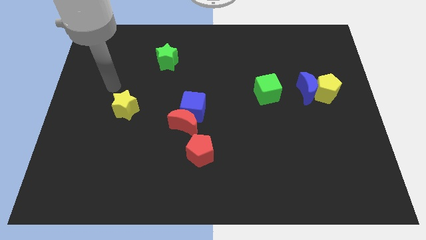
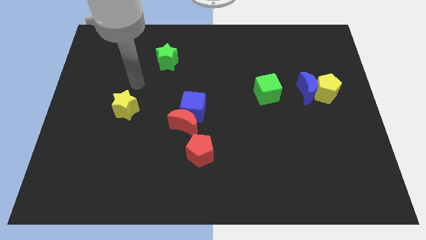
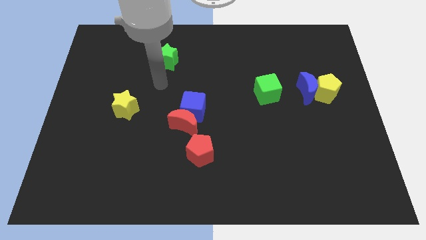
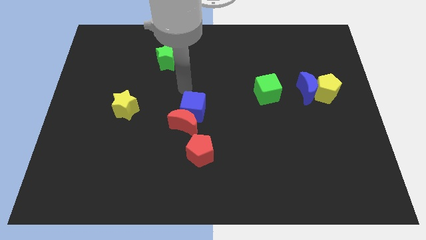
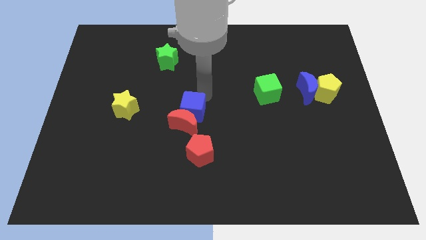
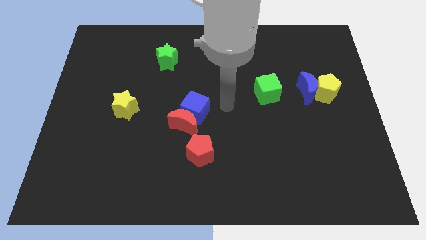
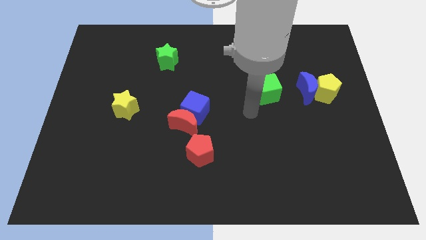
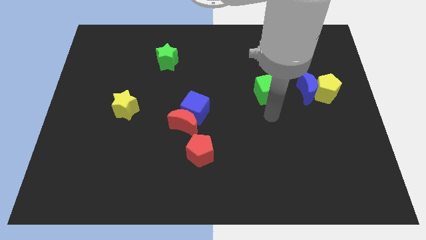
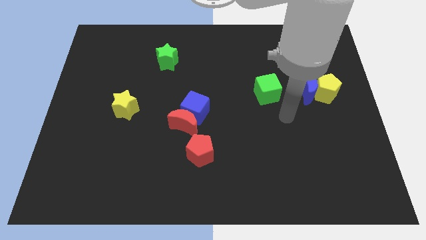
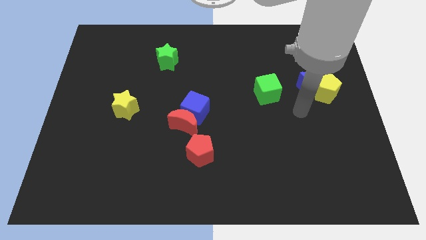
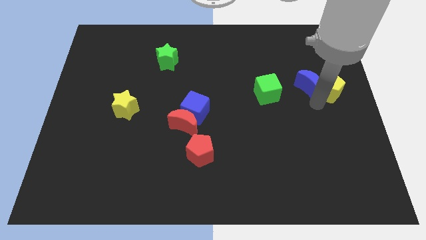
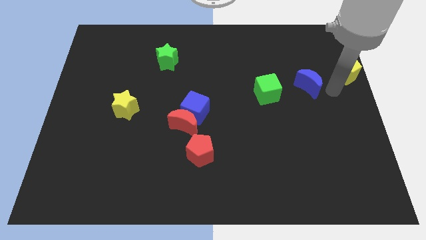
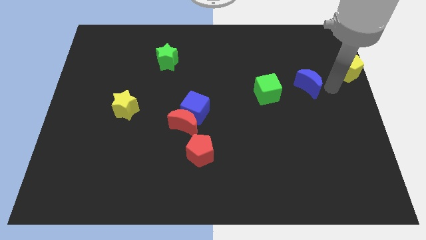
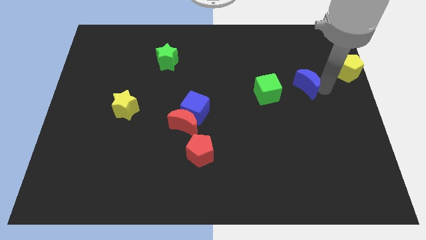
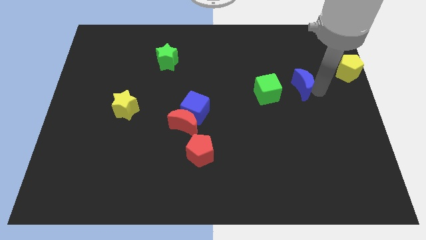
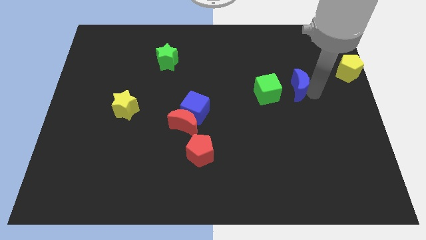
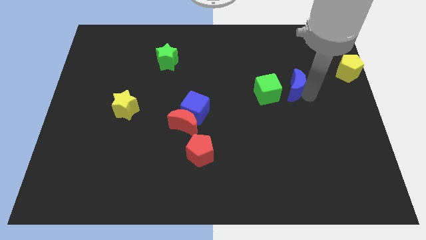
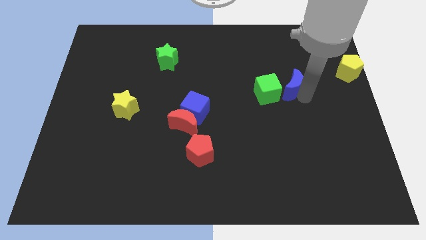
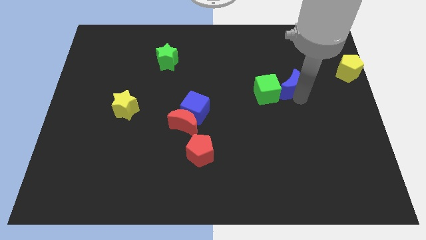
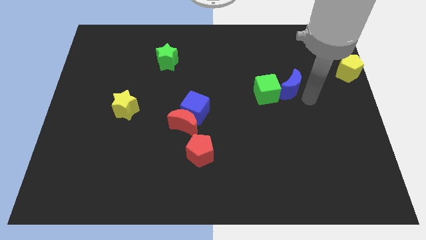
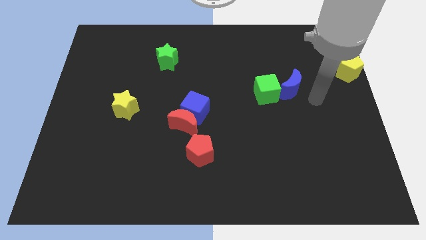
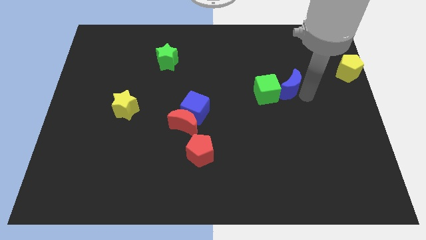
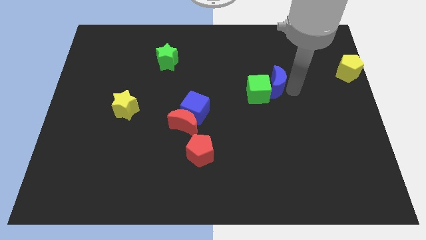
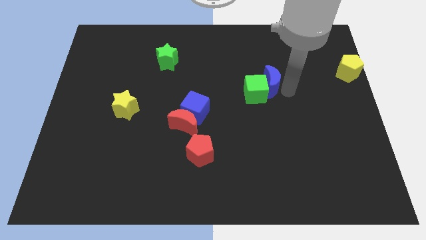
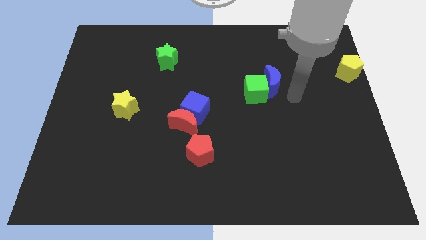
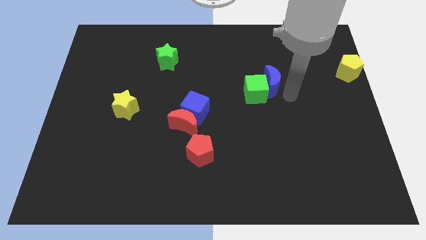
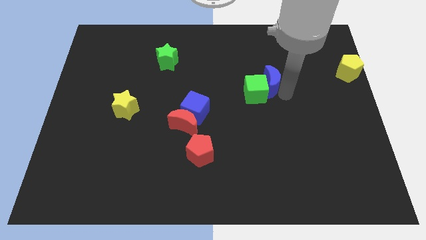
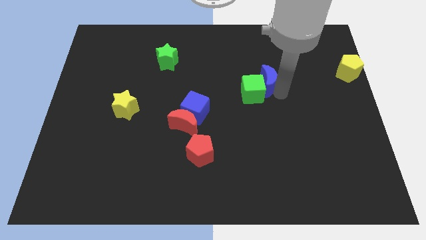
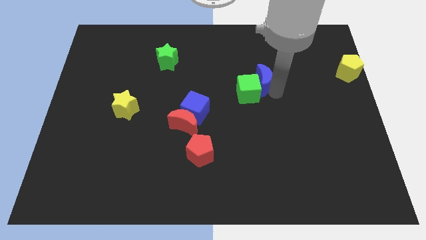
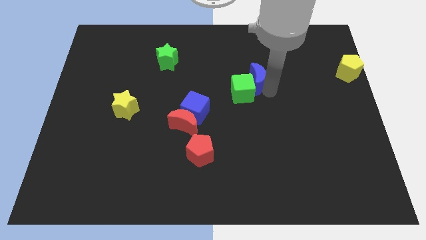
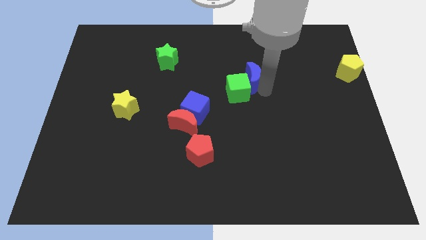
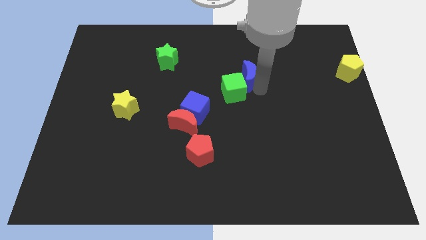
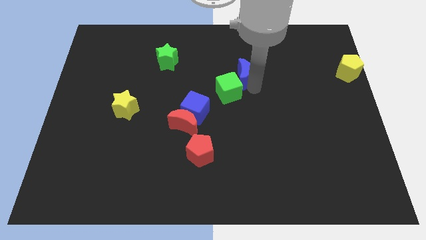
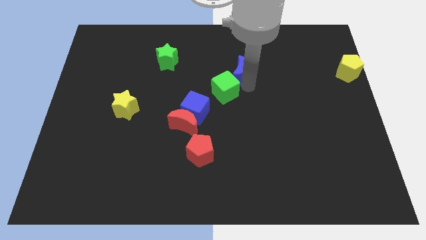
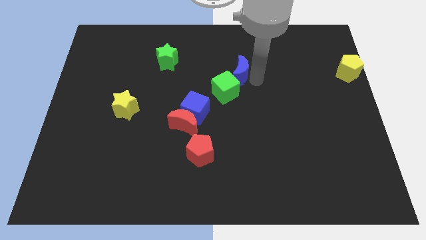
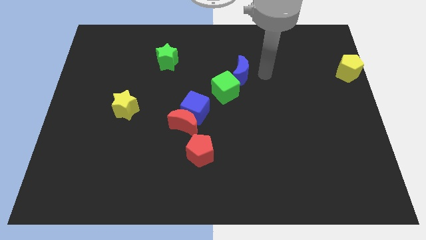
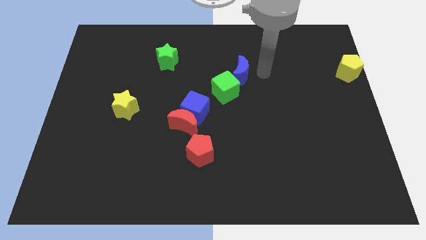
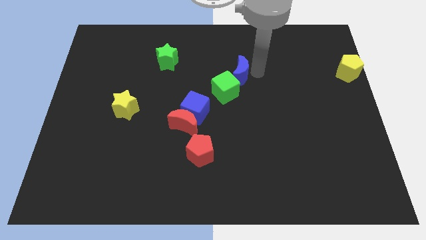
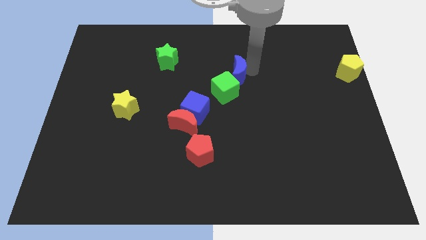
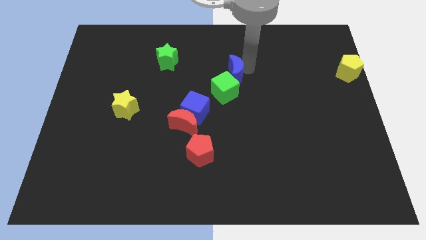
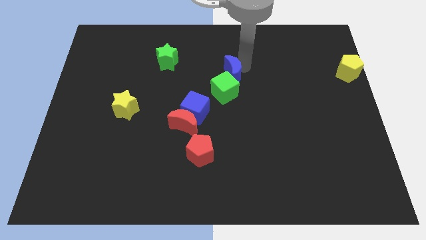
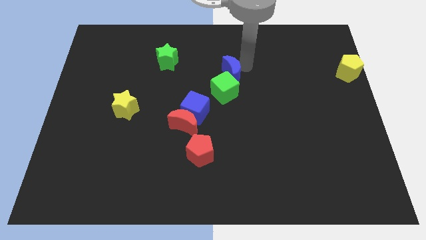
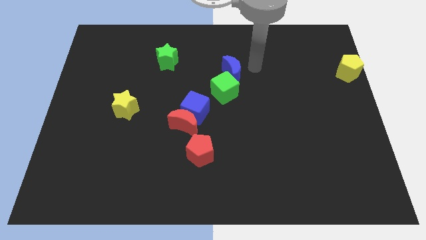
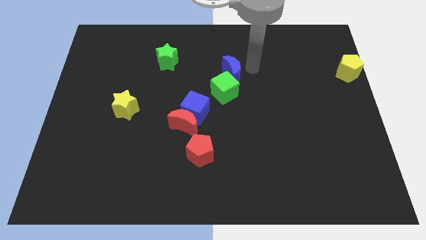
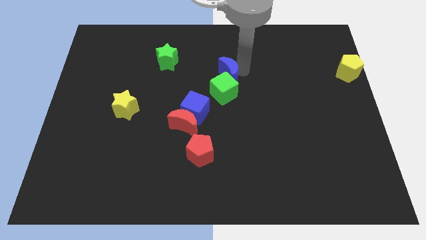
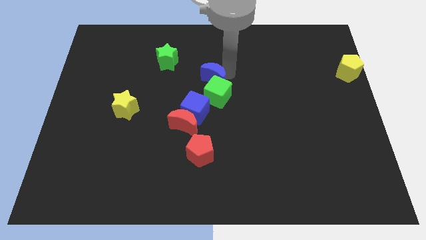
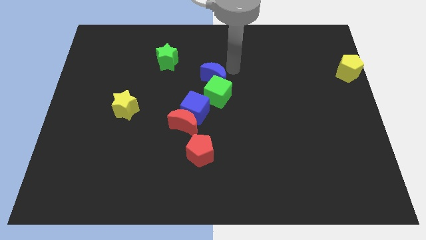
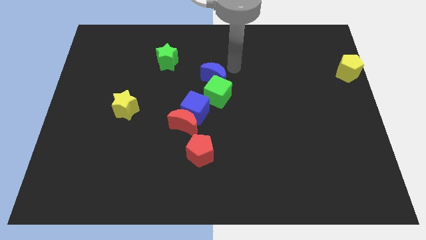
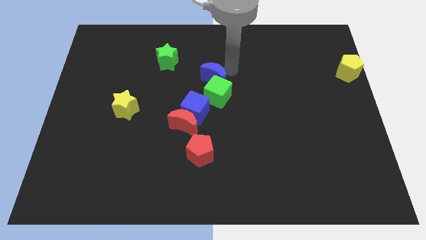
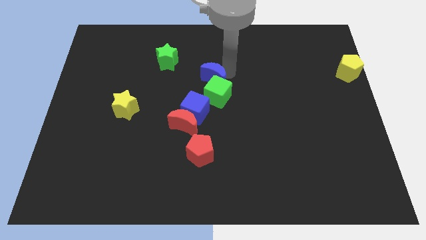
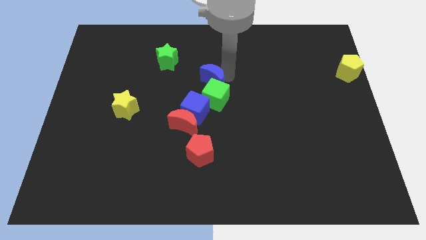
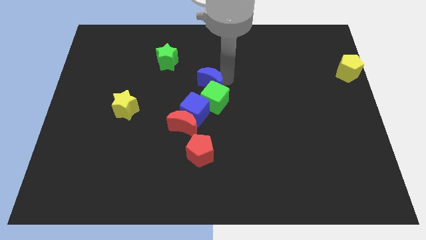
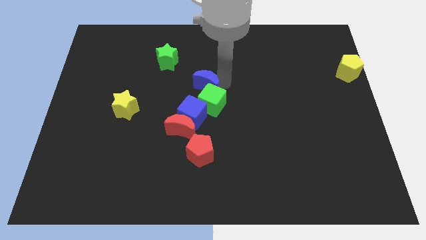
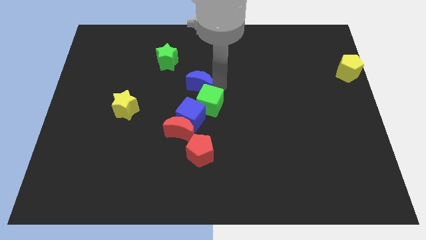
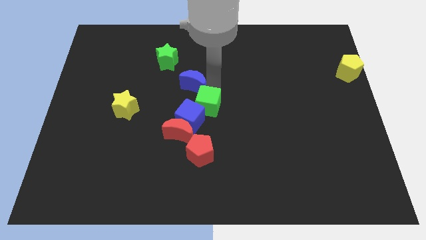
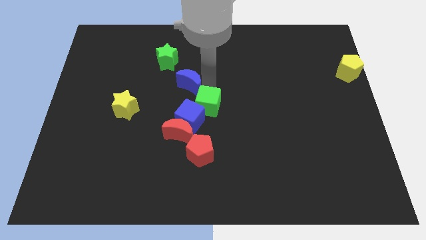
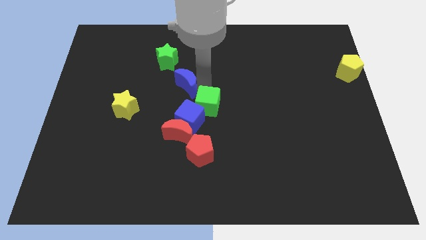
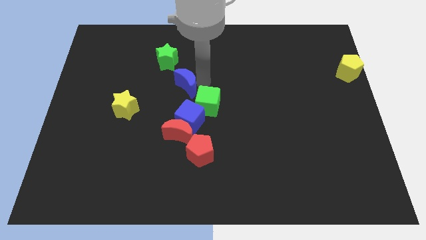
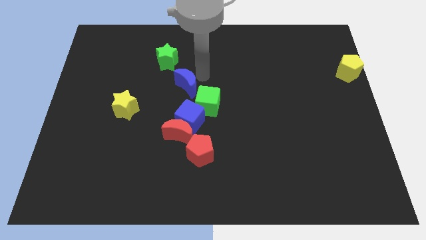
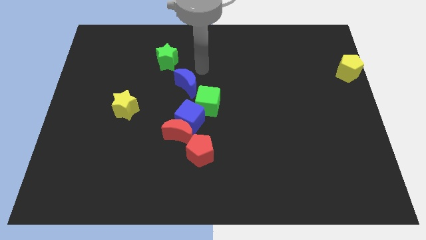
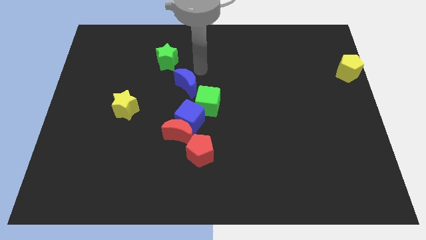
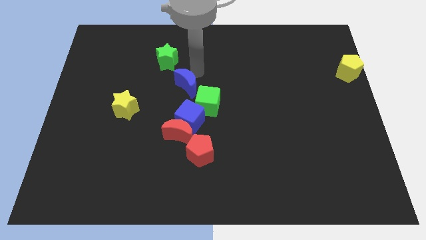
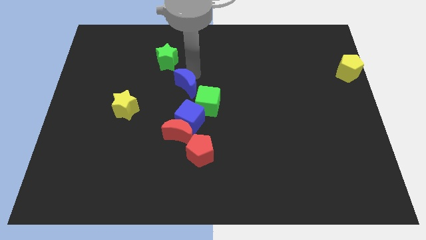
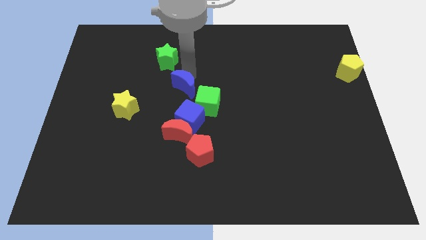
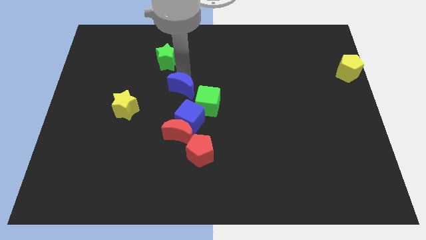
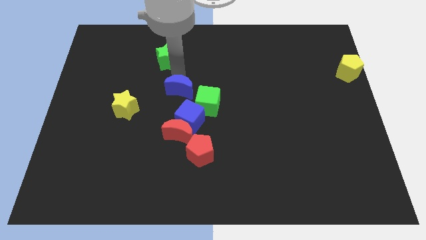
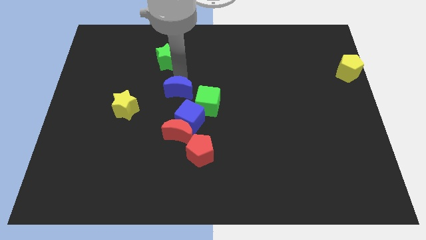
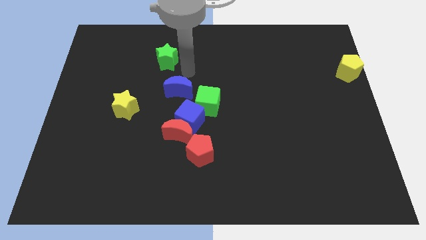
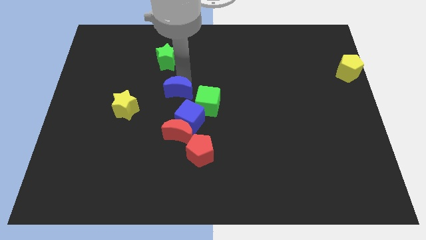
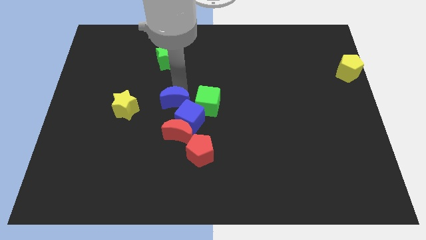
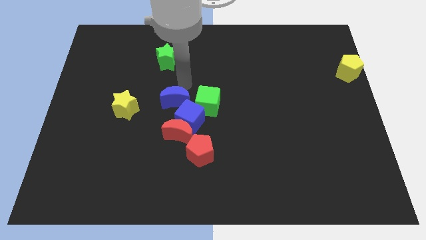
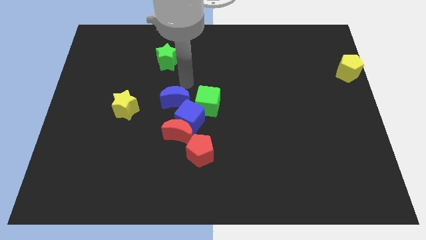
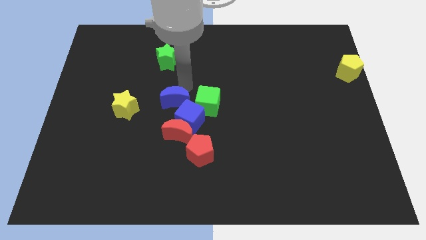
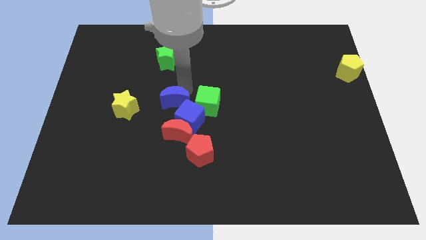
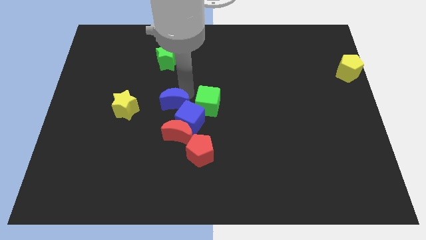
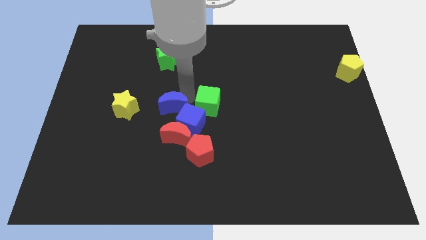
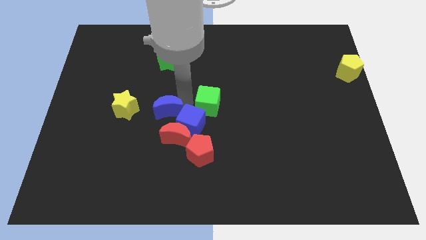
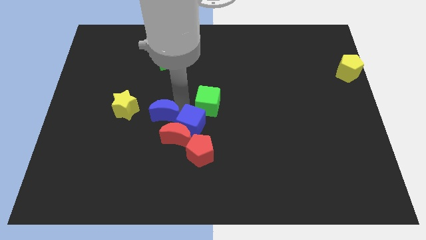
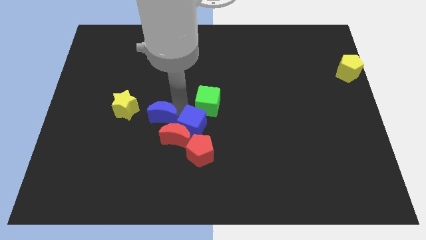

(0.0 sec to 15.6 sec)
move the blue moon to the bottom right side of the yellow star

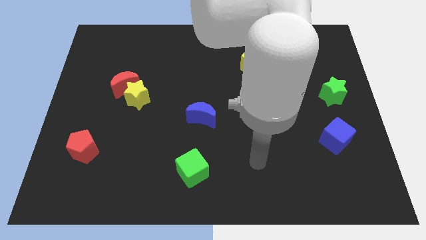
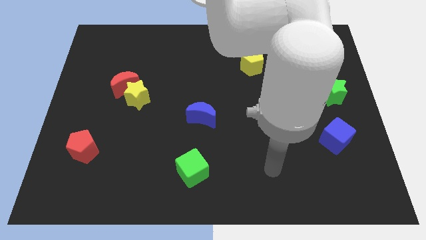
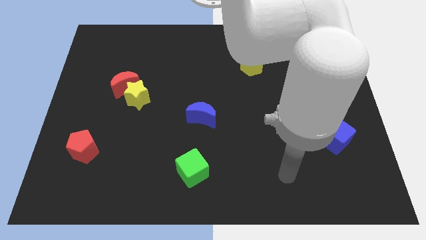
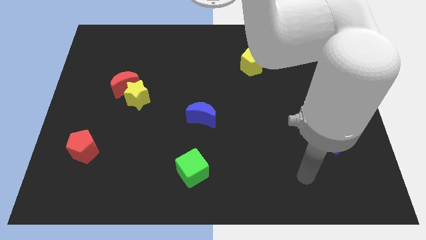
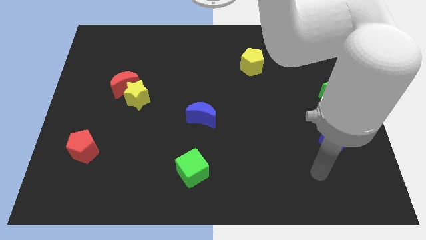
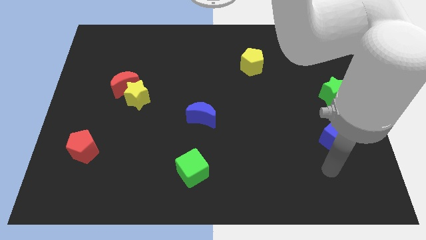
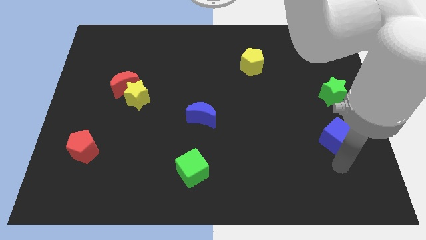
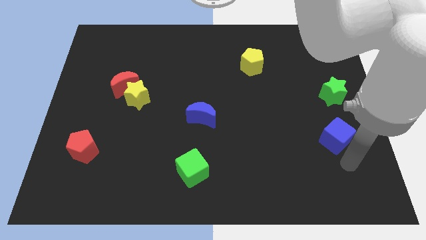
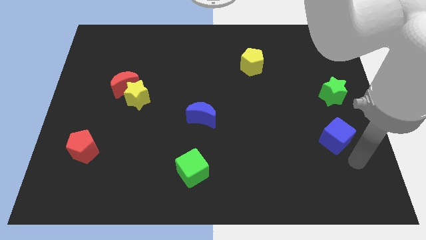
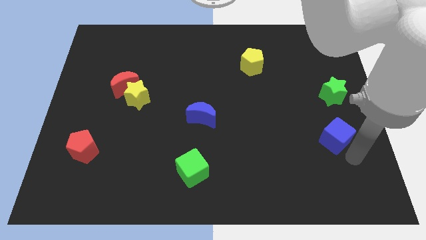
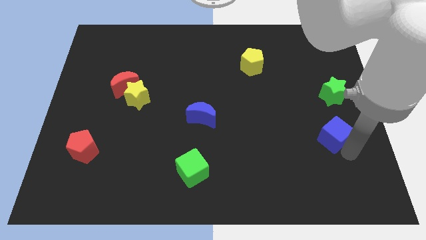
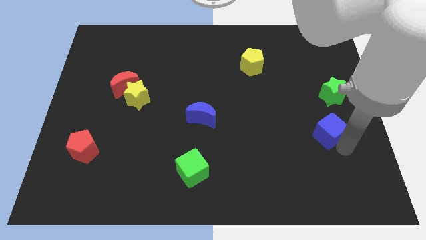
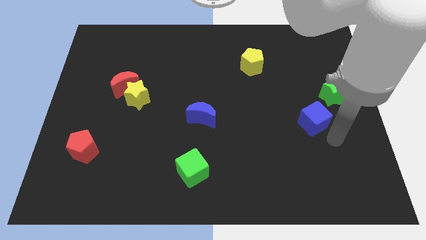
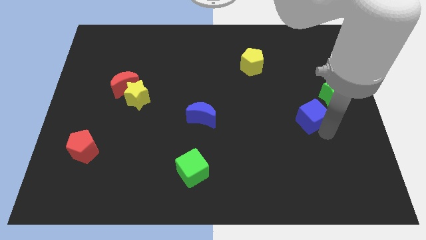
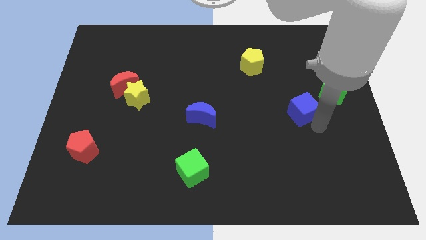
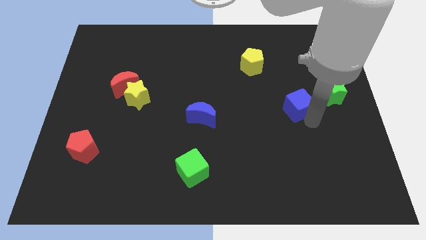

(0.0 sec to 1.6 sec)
slide the blue cube just left of the green star
